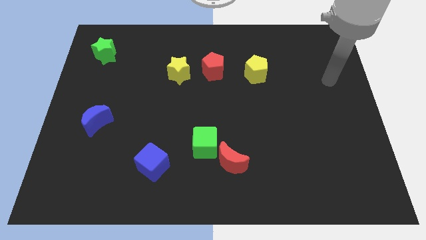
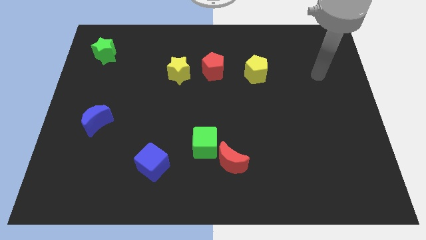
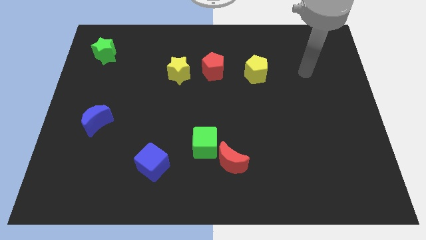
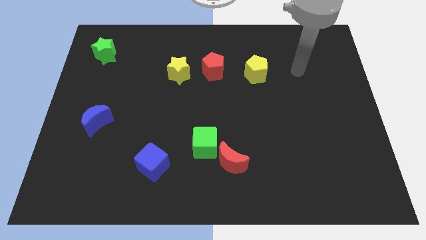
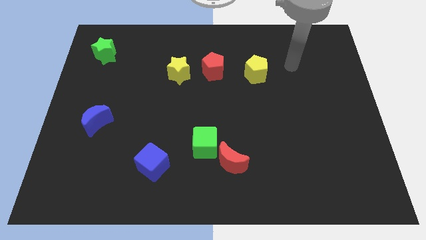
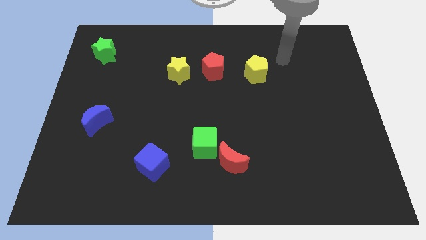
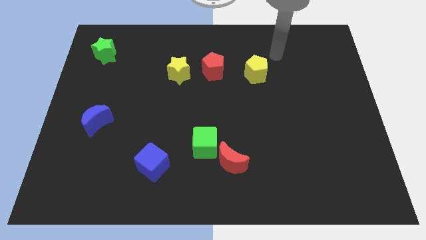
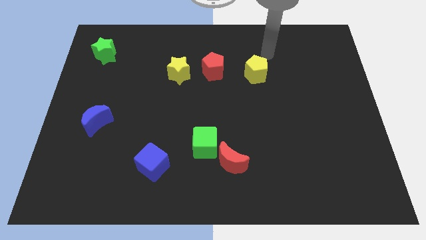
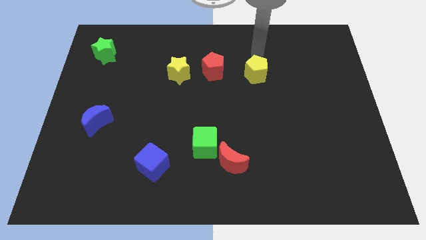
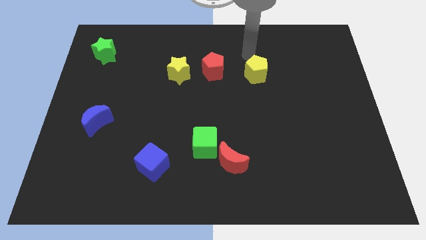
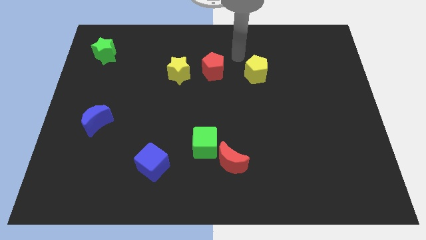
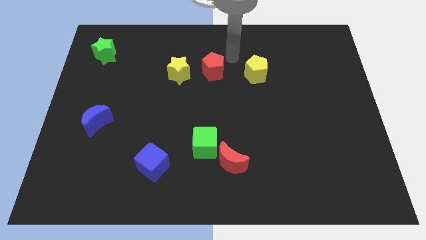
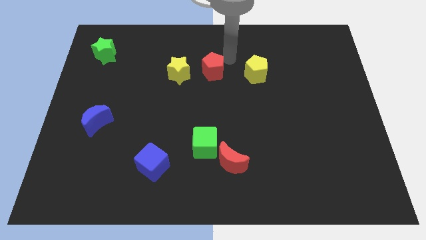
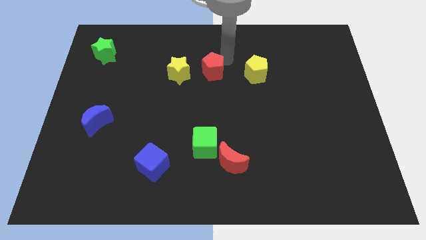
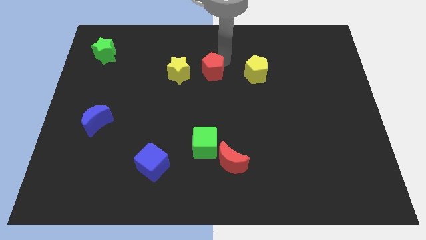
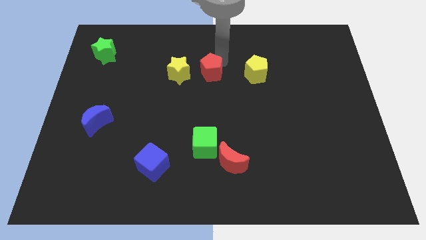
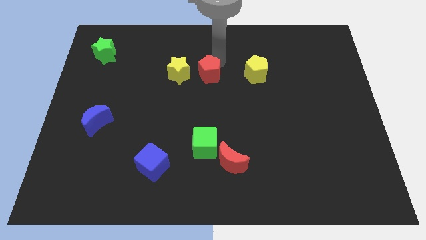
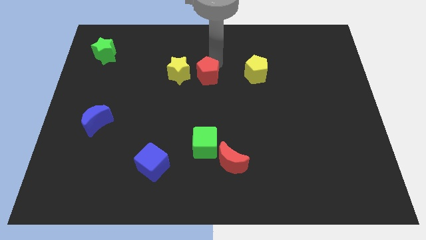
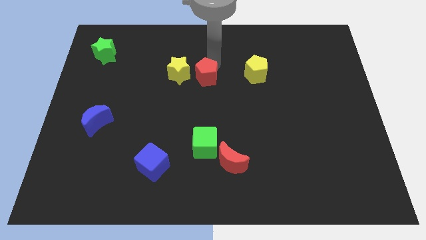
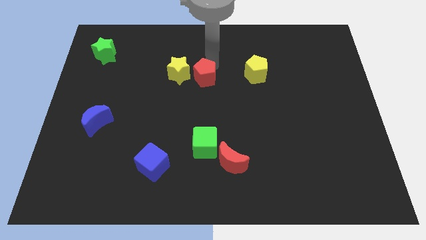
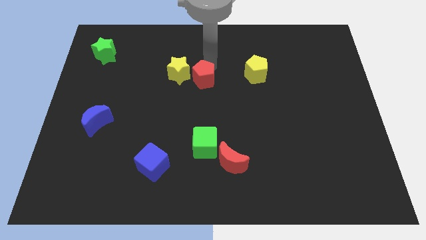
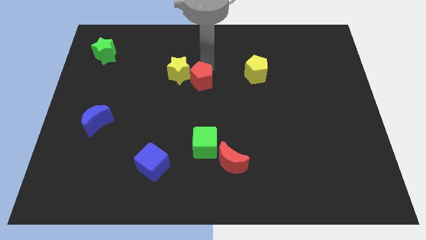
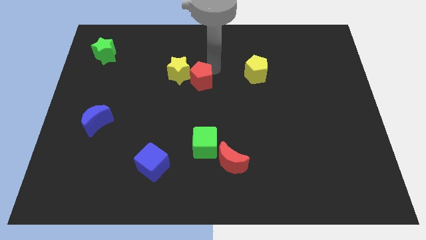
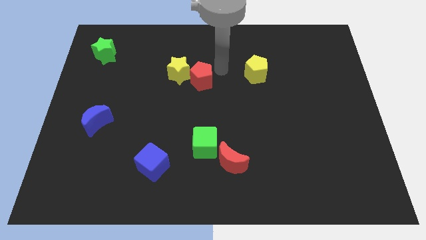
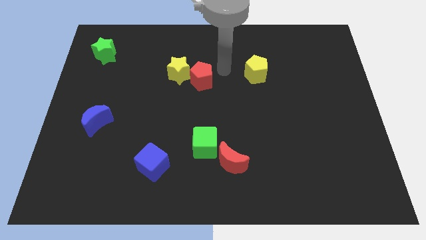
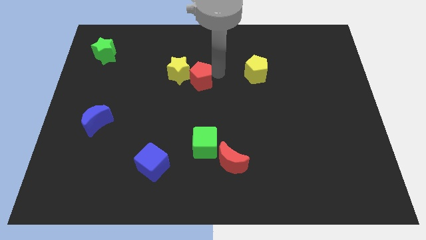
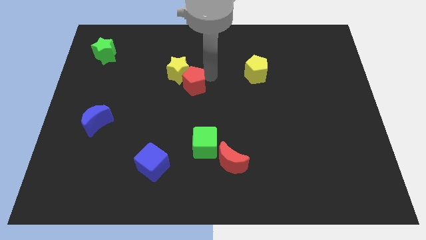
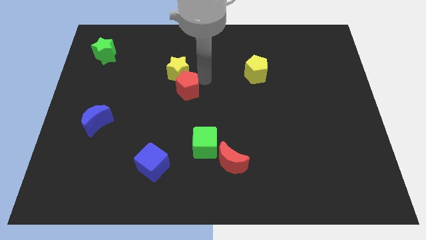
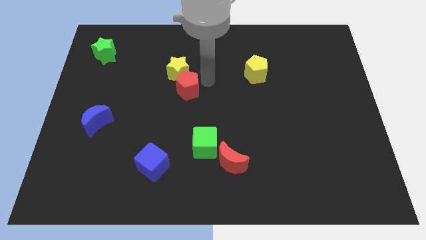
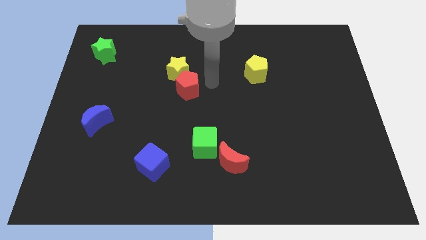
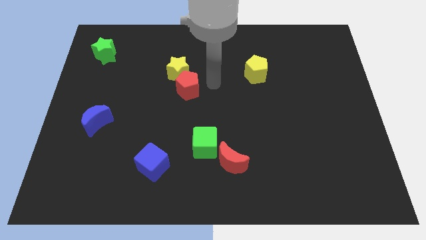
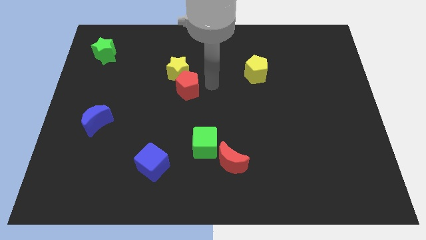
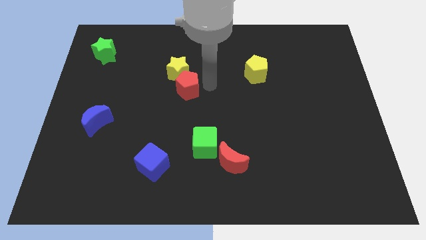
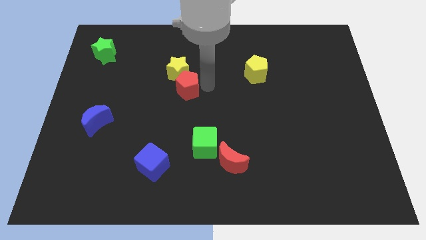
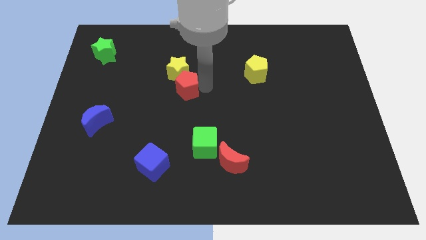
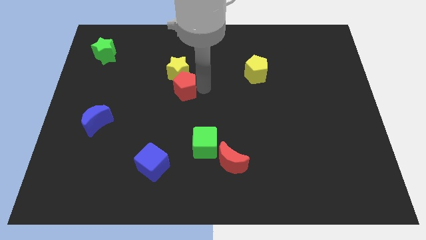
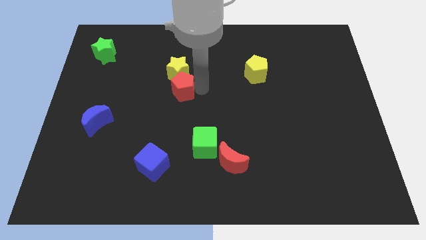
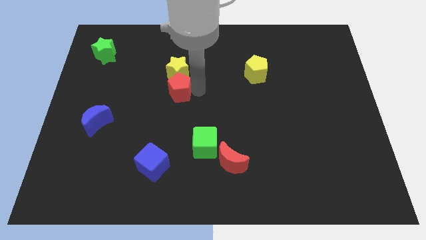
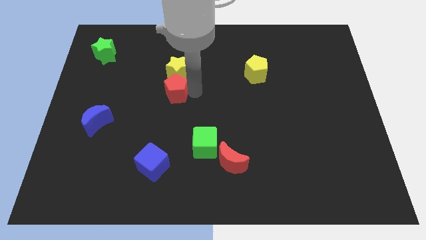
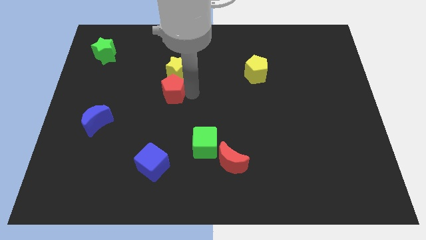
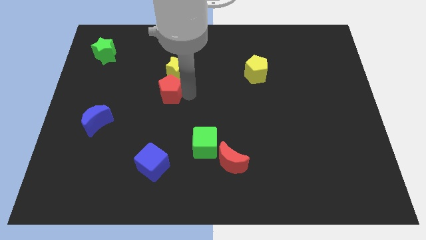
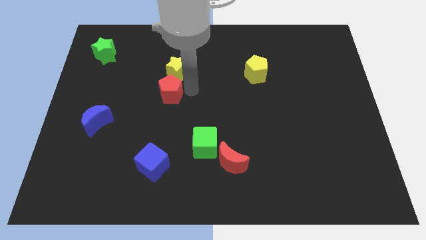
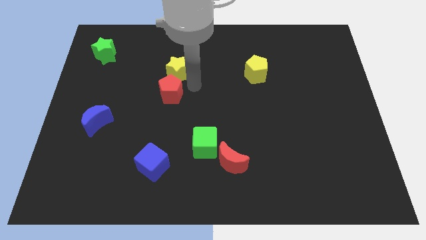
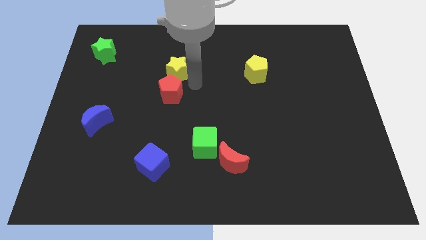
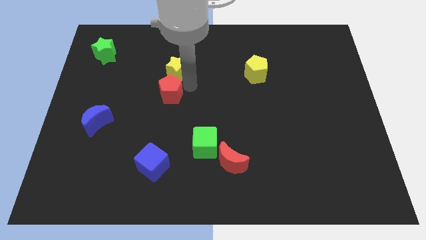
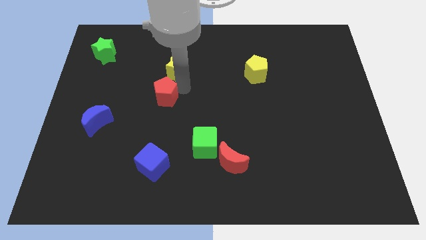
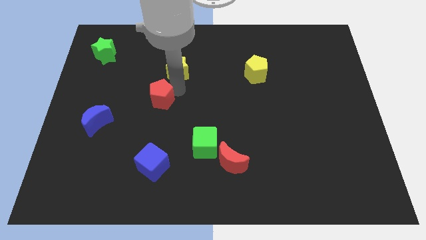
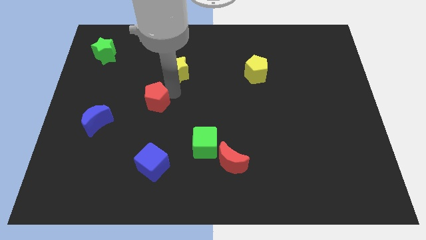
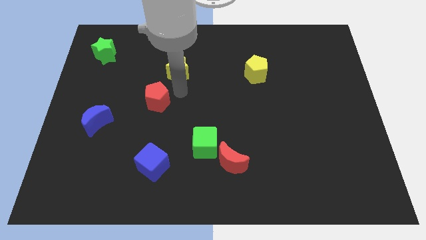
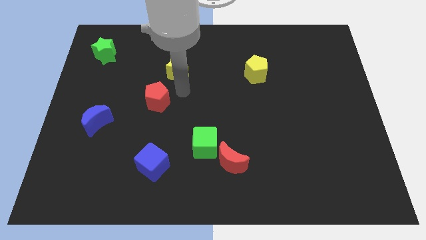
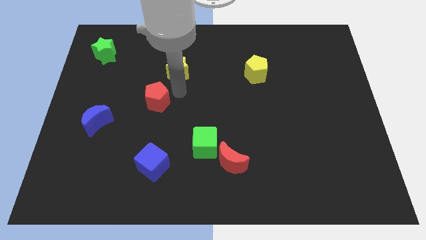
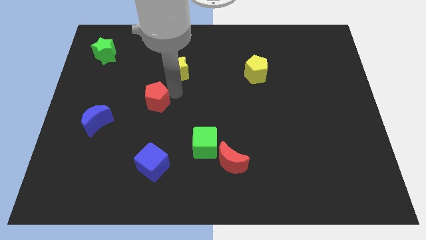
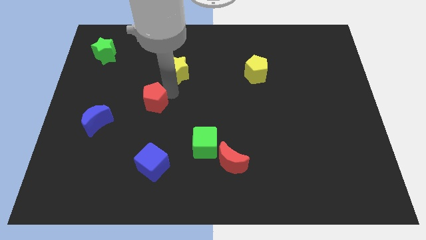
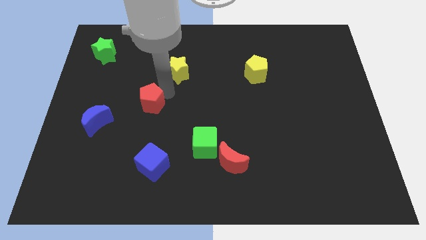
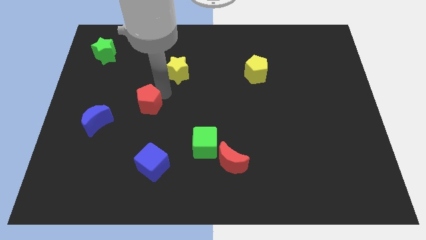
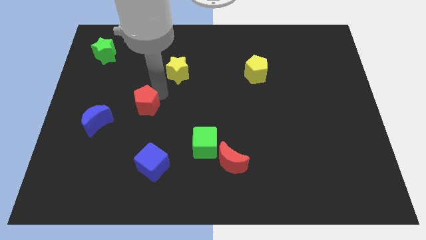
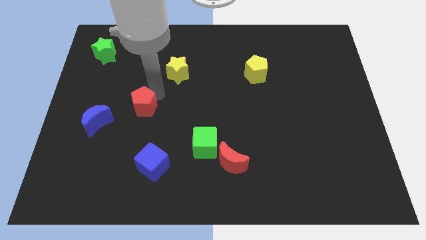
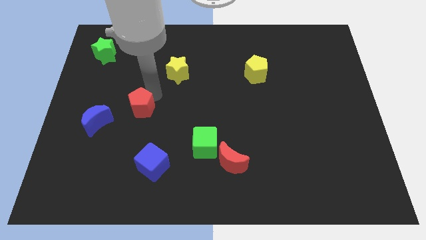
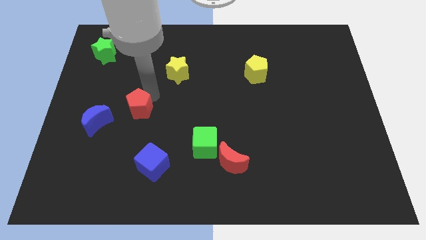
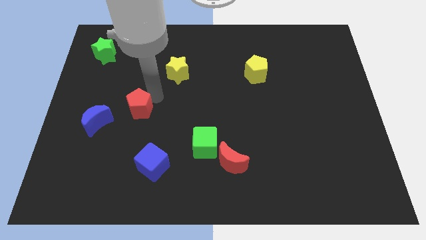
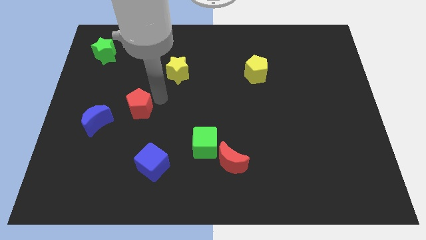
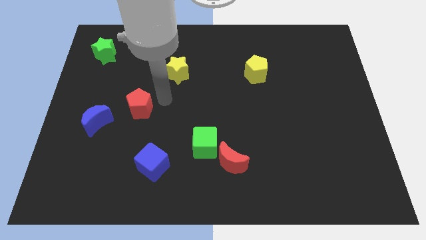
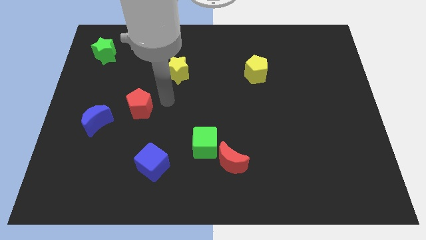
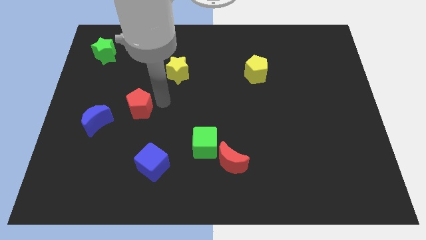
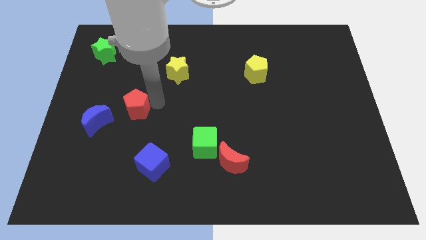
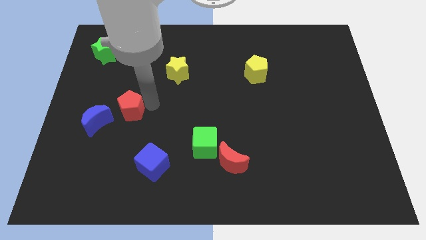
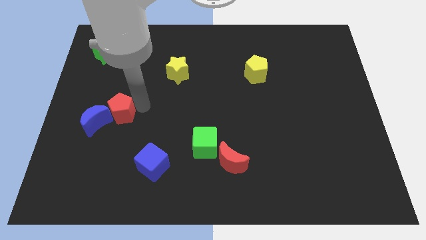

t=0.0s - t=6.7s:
push the red pentagon close to the blue moon
